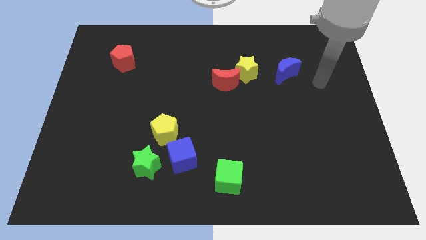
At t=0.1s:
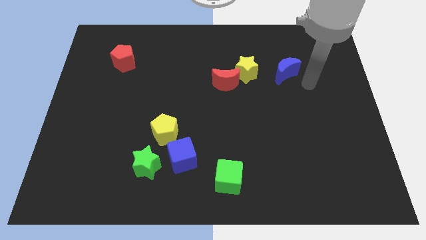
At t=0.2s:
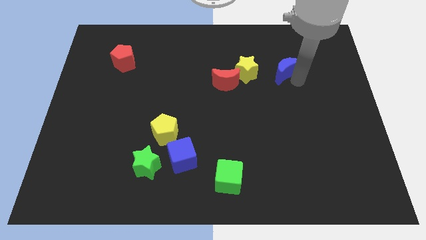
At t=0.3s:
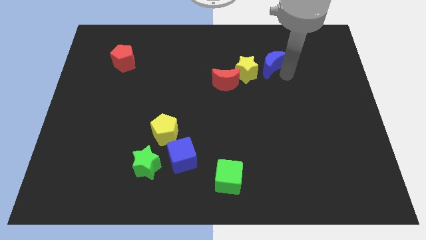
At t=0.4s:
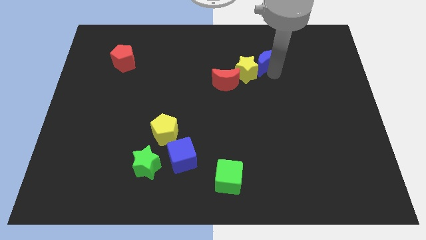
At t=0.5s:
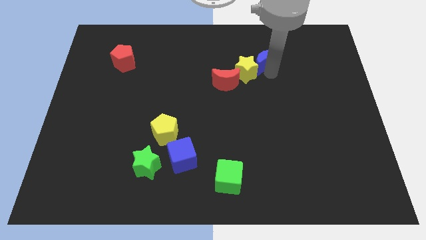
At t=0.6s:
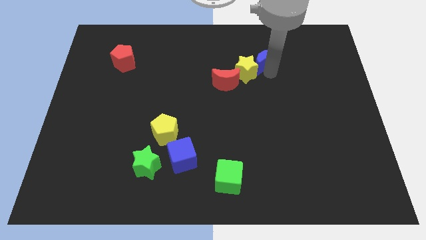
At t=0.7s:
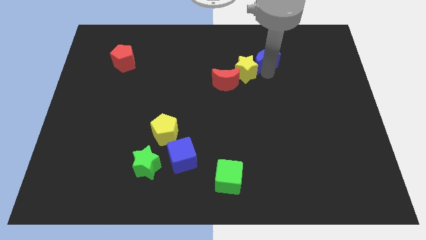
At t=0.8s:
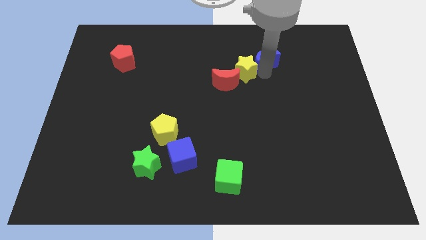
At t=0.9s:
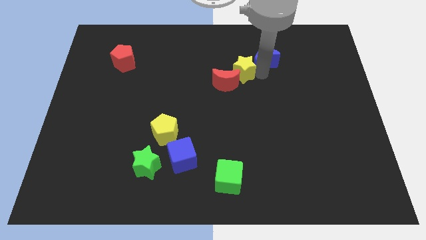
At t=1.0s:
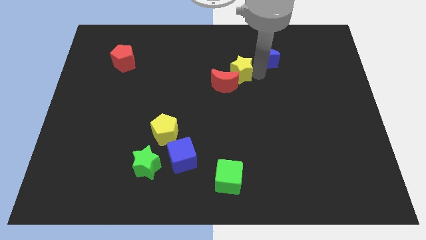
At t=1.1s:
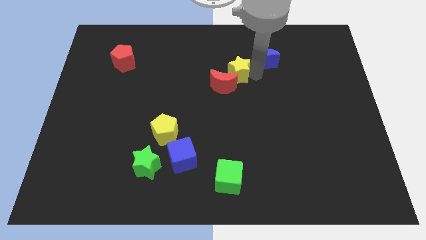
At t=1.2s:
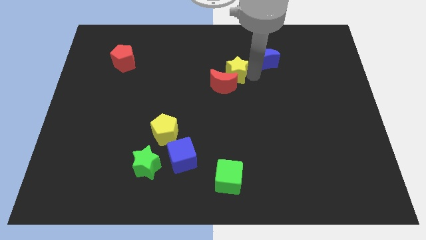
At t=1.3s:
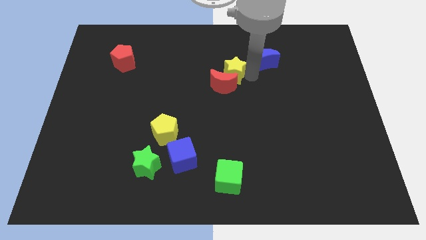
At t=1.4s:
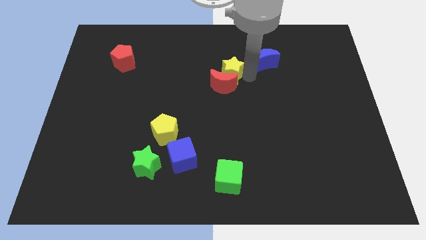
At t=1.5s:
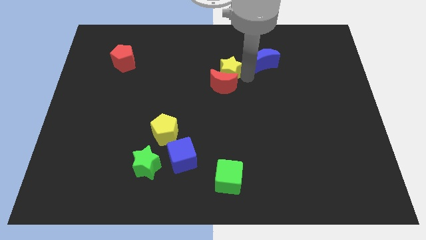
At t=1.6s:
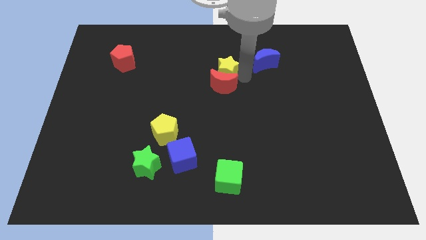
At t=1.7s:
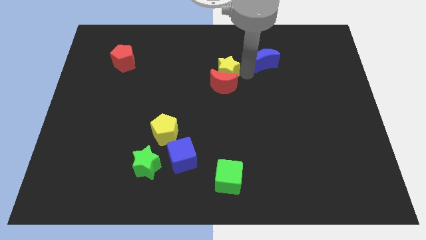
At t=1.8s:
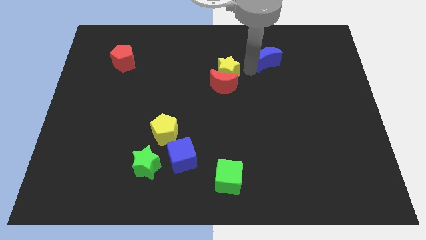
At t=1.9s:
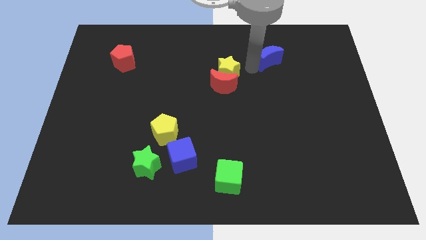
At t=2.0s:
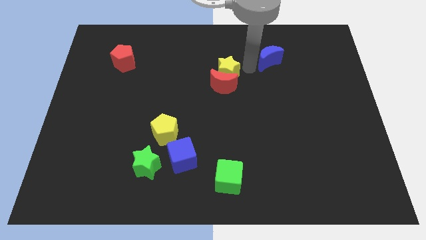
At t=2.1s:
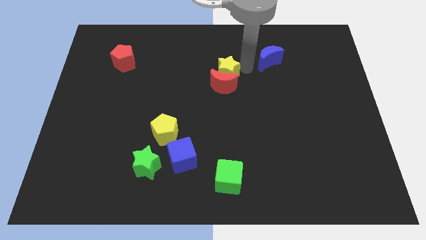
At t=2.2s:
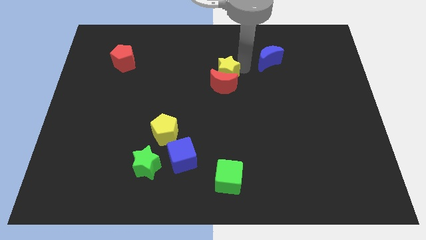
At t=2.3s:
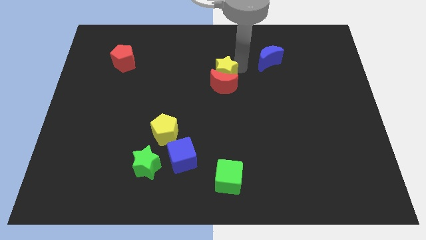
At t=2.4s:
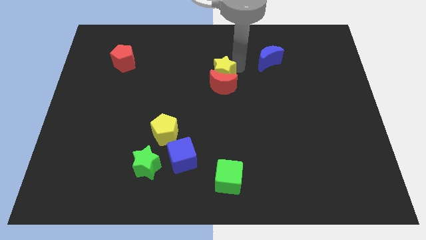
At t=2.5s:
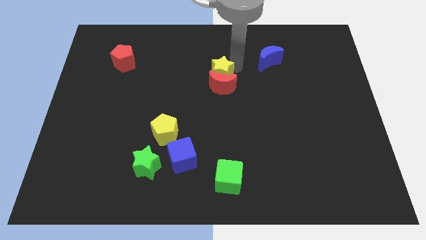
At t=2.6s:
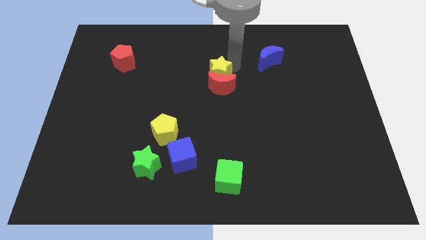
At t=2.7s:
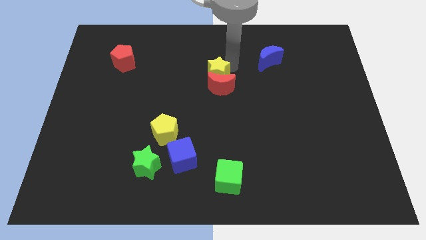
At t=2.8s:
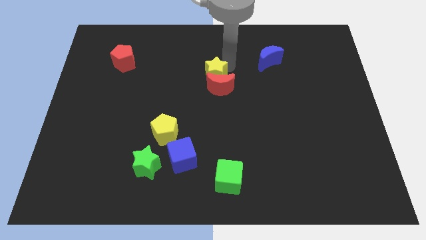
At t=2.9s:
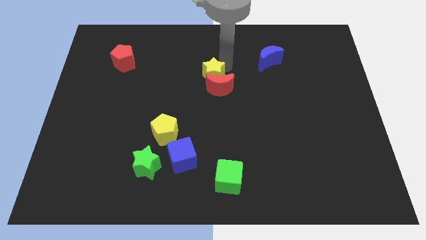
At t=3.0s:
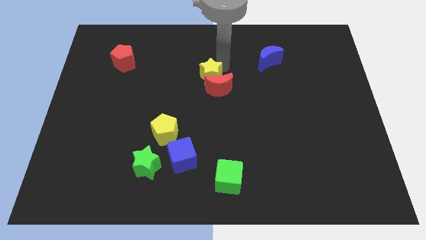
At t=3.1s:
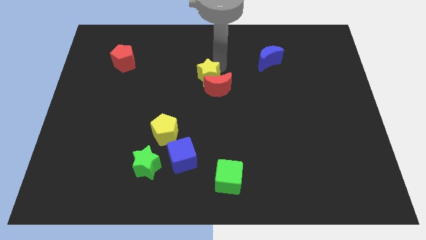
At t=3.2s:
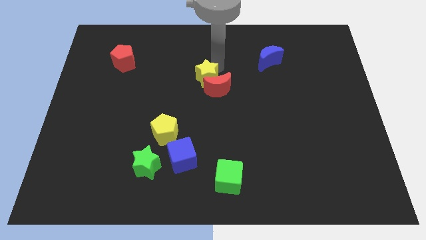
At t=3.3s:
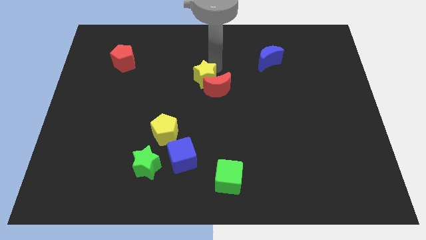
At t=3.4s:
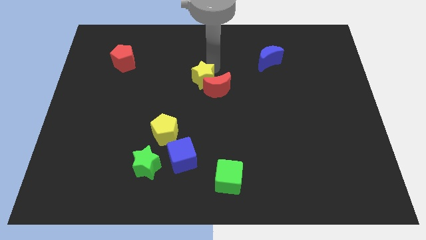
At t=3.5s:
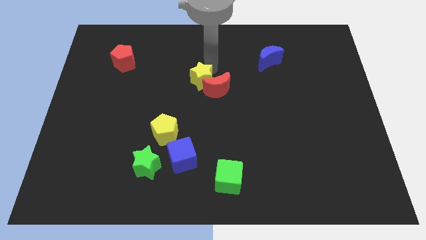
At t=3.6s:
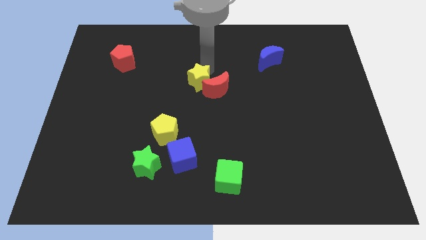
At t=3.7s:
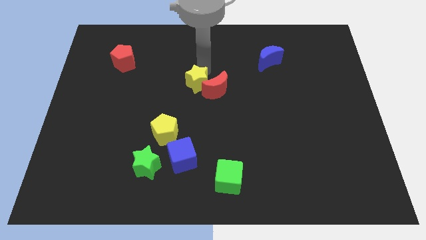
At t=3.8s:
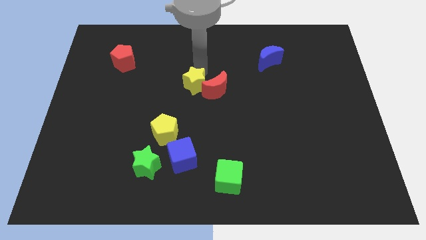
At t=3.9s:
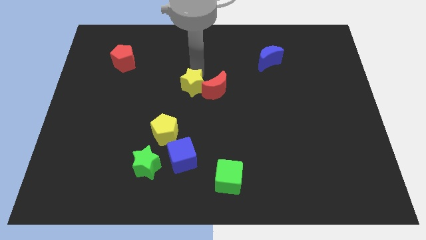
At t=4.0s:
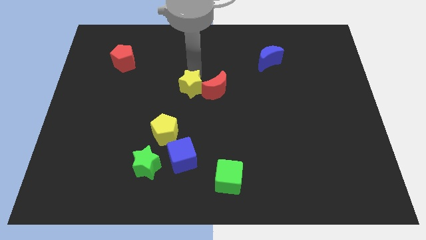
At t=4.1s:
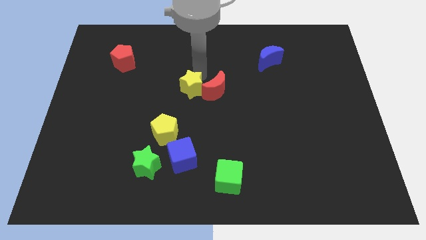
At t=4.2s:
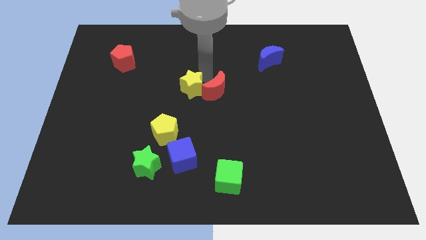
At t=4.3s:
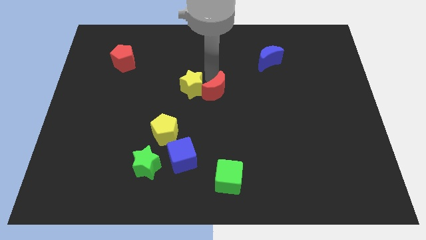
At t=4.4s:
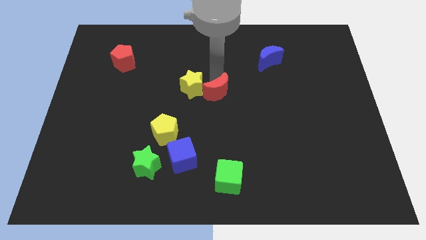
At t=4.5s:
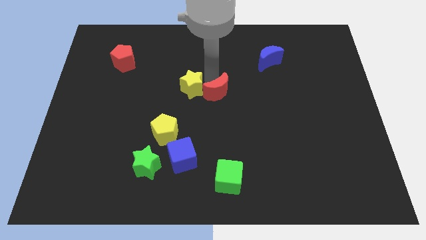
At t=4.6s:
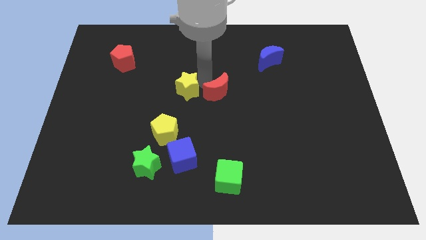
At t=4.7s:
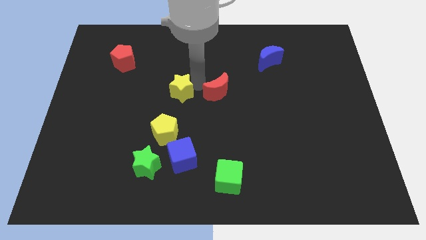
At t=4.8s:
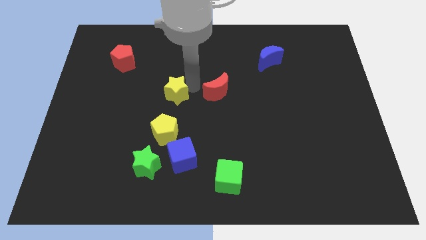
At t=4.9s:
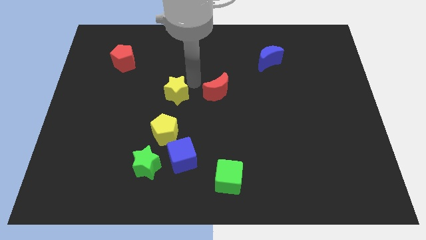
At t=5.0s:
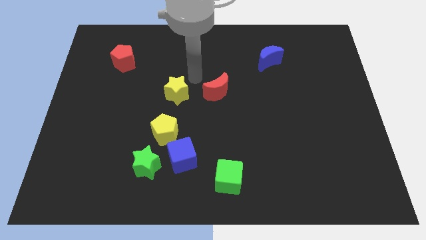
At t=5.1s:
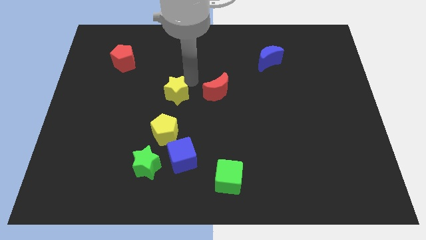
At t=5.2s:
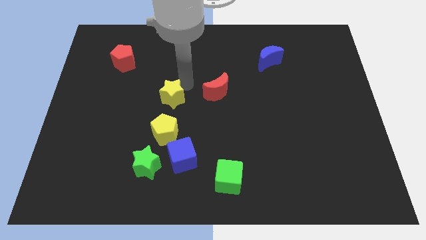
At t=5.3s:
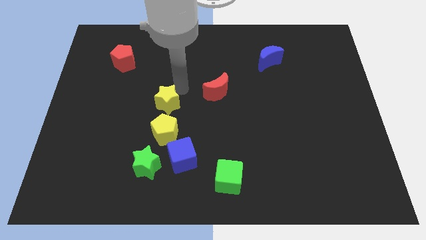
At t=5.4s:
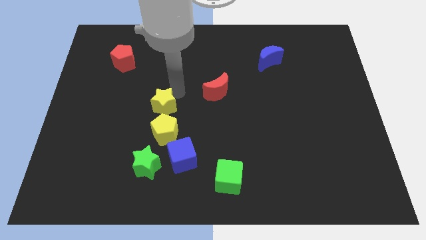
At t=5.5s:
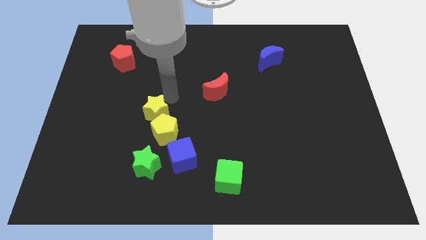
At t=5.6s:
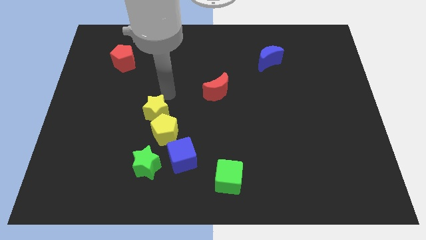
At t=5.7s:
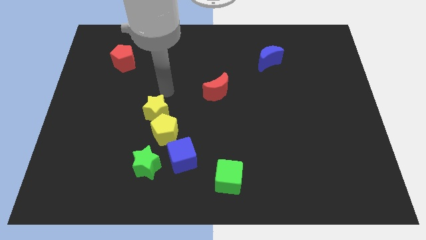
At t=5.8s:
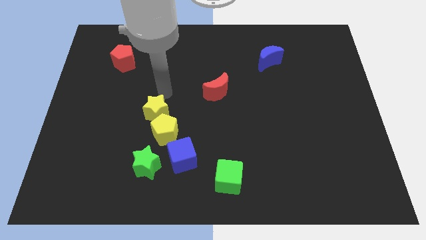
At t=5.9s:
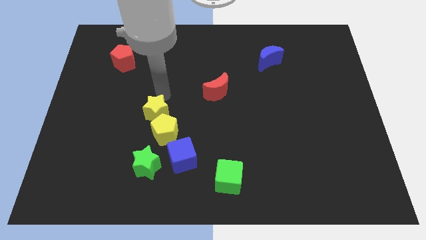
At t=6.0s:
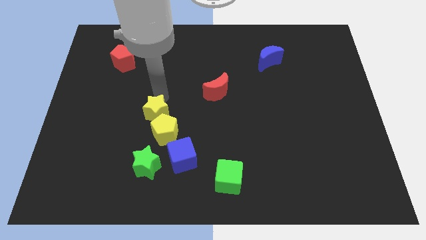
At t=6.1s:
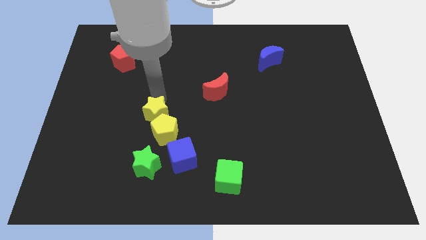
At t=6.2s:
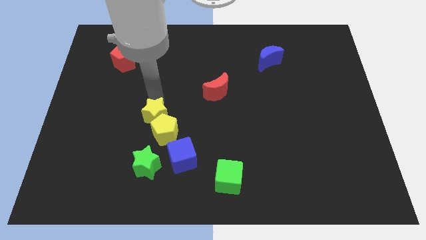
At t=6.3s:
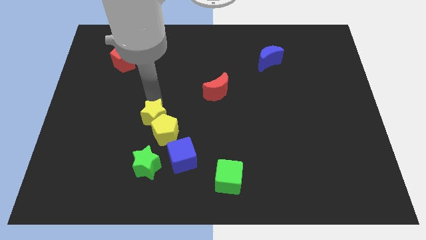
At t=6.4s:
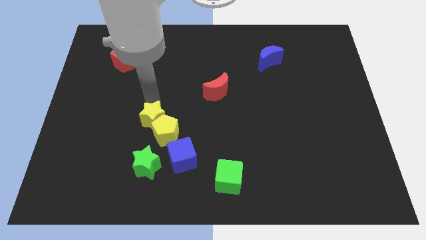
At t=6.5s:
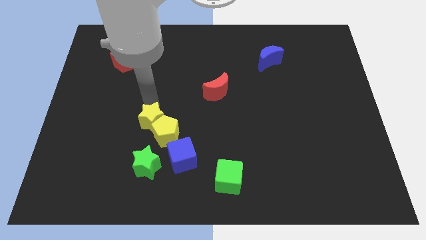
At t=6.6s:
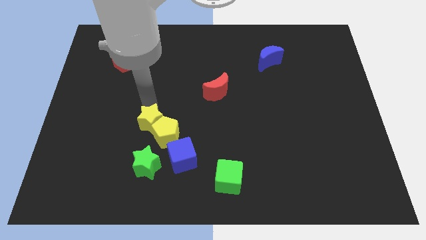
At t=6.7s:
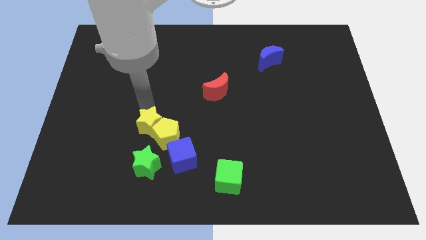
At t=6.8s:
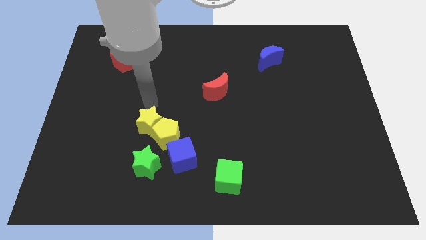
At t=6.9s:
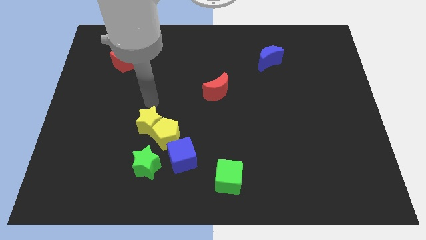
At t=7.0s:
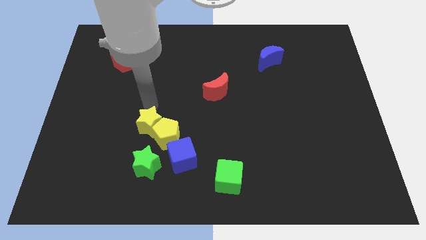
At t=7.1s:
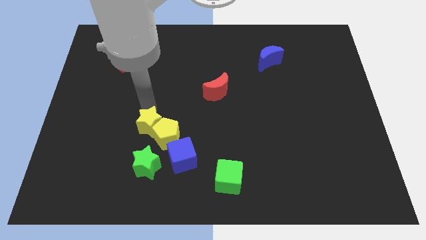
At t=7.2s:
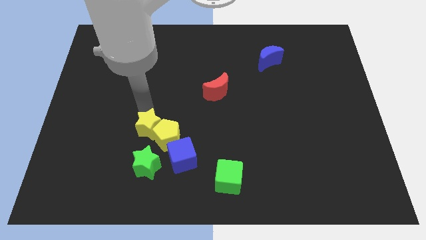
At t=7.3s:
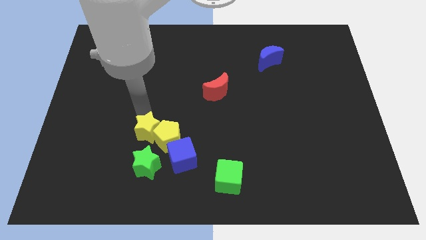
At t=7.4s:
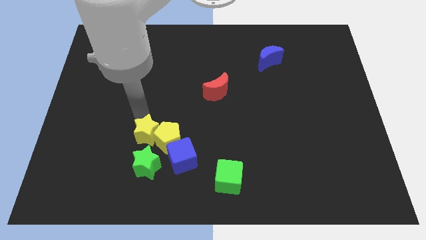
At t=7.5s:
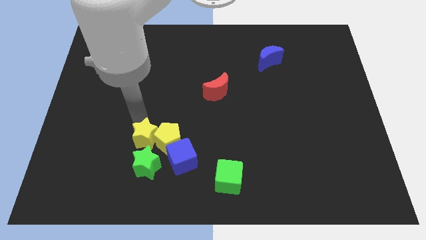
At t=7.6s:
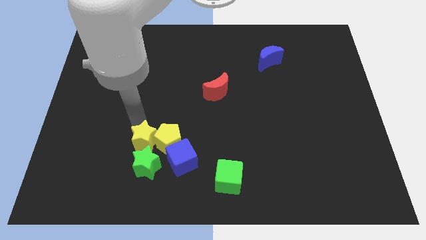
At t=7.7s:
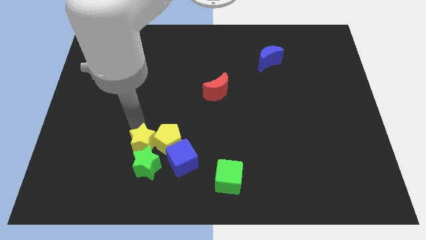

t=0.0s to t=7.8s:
put the yellow star next to the green star

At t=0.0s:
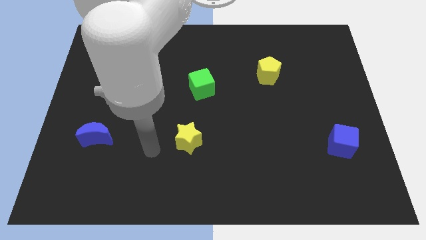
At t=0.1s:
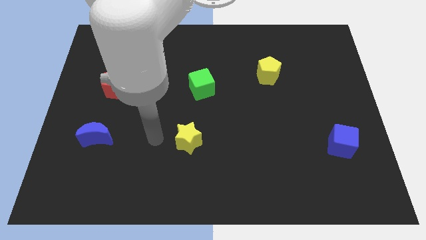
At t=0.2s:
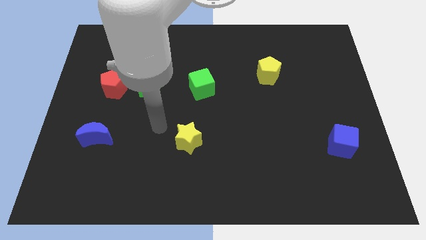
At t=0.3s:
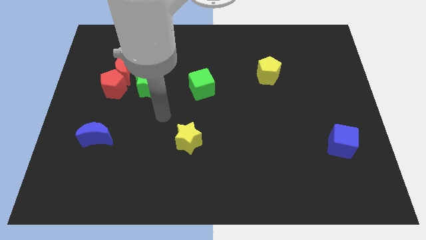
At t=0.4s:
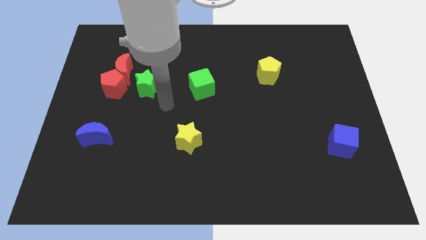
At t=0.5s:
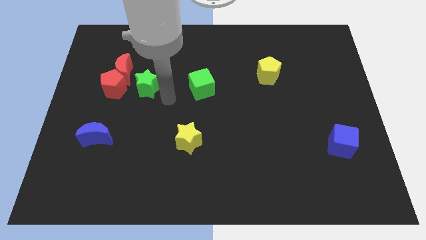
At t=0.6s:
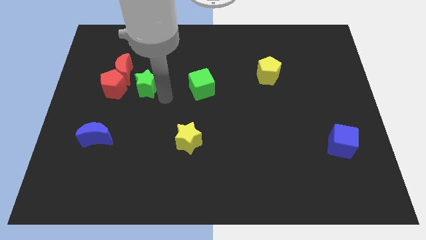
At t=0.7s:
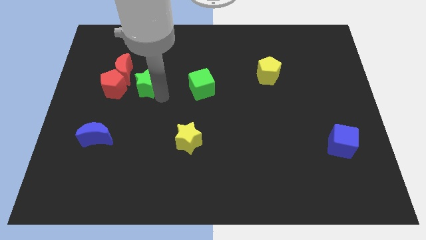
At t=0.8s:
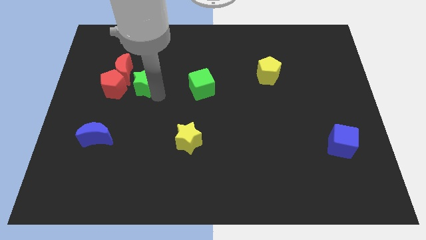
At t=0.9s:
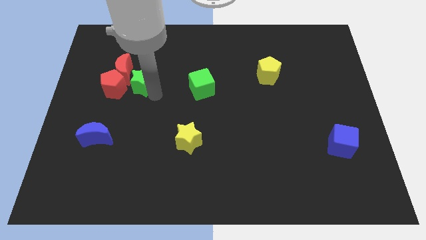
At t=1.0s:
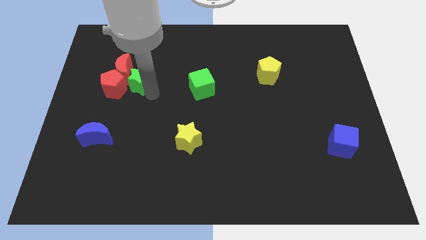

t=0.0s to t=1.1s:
slide the green star to the red moon
